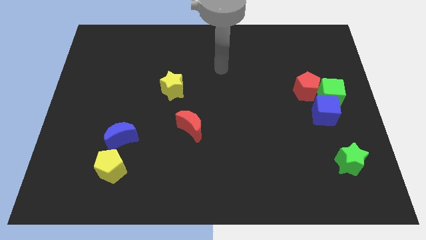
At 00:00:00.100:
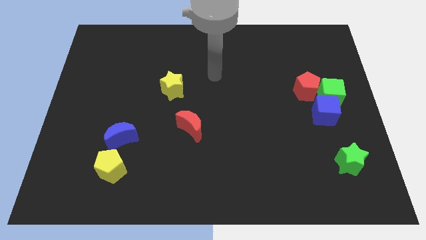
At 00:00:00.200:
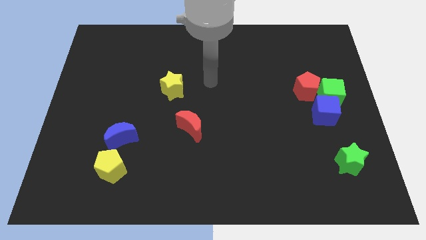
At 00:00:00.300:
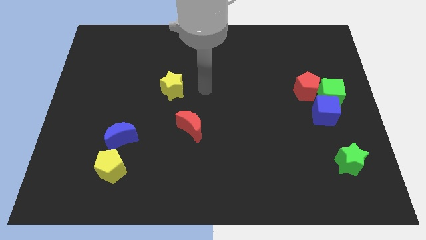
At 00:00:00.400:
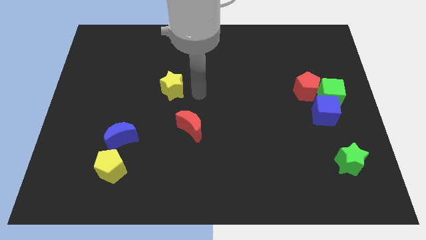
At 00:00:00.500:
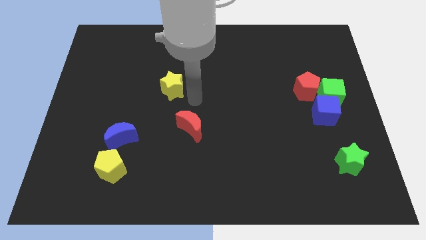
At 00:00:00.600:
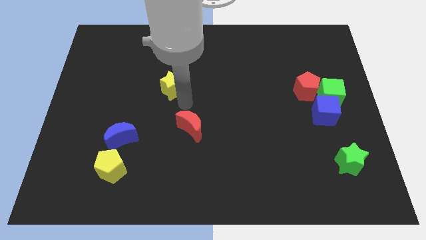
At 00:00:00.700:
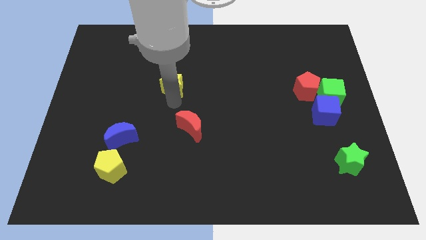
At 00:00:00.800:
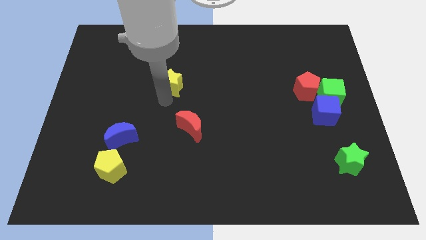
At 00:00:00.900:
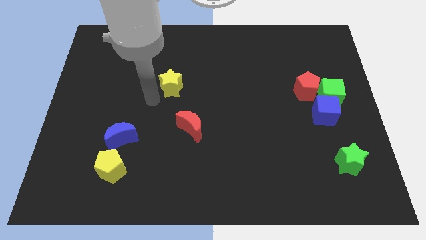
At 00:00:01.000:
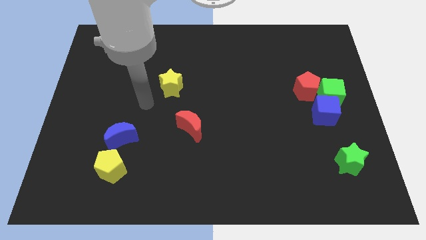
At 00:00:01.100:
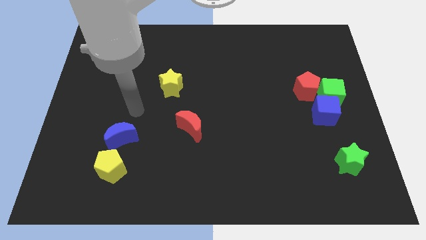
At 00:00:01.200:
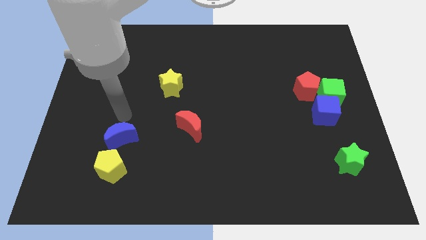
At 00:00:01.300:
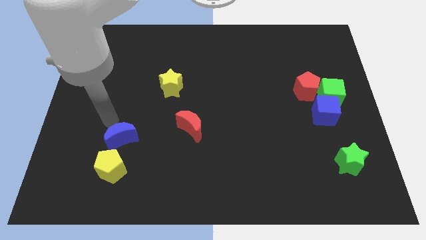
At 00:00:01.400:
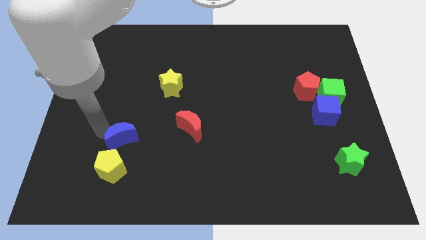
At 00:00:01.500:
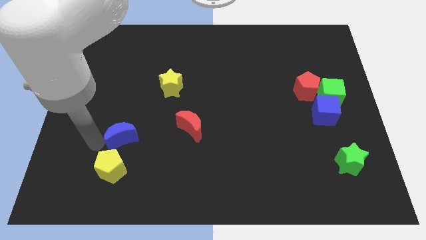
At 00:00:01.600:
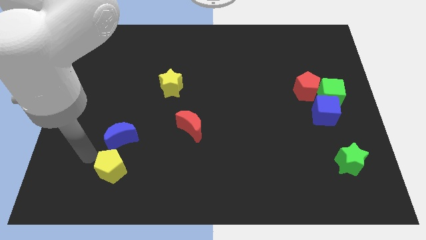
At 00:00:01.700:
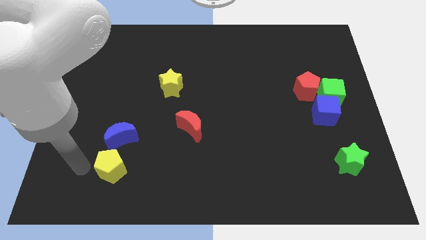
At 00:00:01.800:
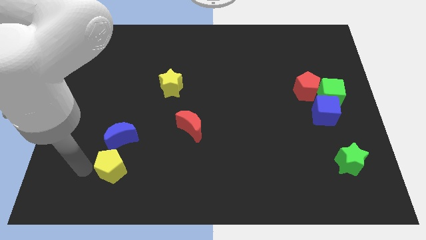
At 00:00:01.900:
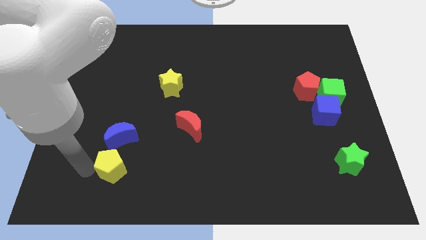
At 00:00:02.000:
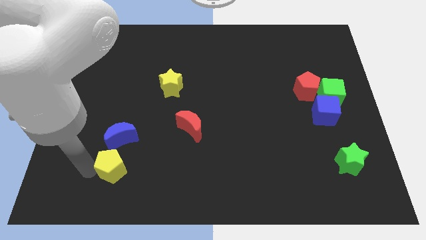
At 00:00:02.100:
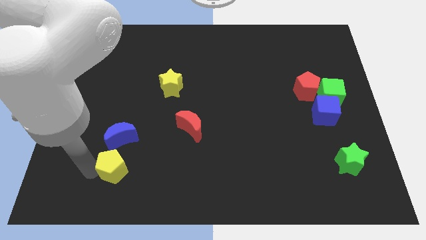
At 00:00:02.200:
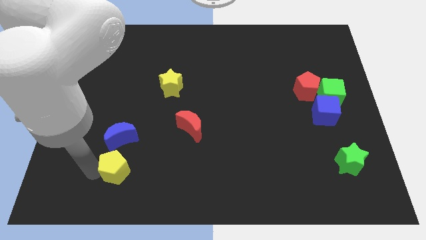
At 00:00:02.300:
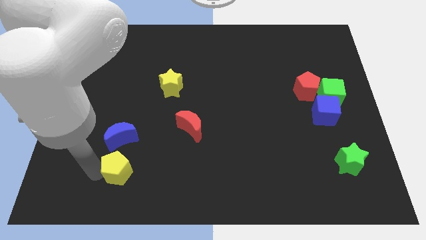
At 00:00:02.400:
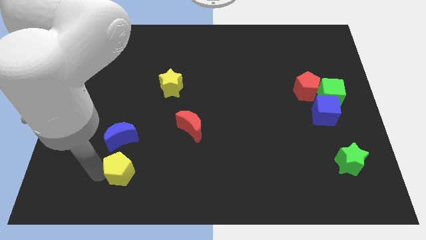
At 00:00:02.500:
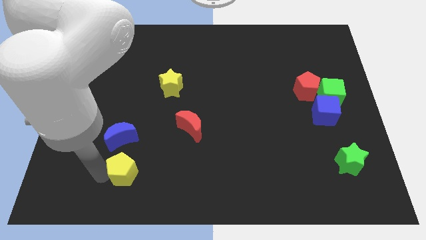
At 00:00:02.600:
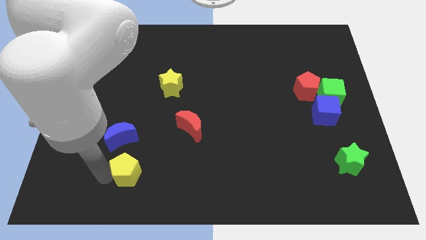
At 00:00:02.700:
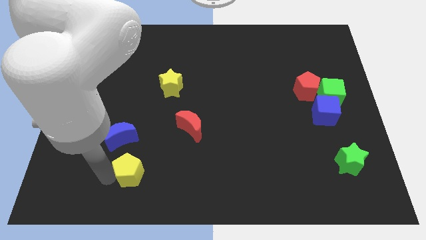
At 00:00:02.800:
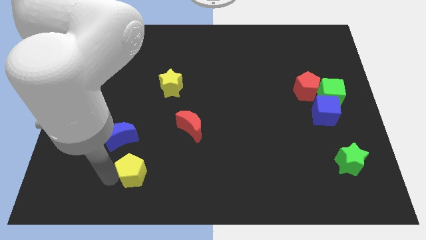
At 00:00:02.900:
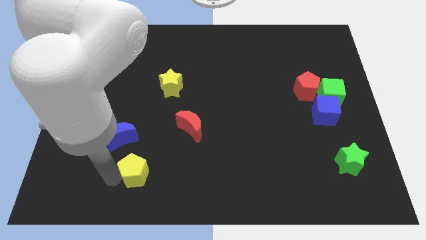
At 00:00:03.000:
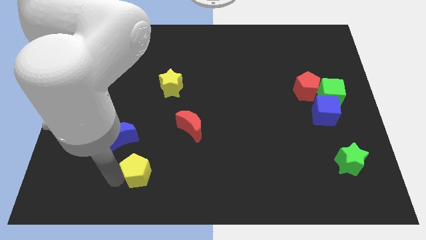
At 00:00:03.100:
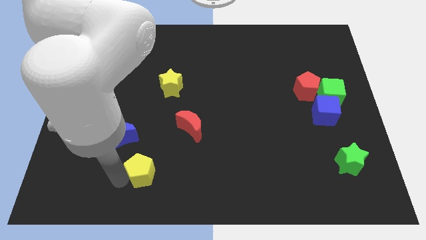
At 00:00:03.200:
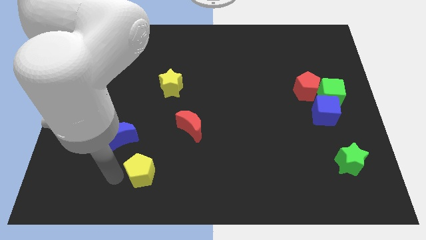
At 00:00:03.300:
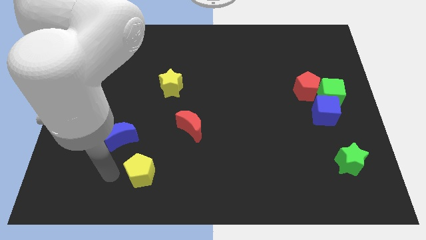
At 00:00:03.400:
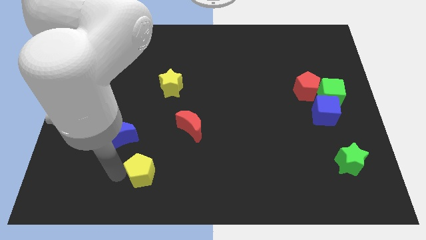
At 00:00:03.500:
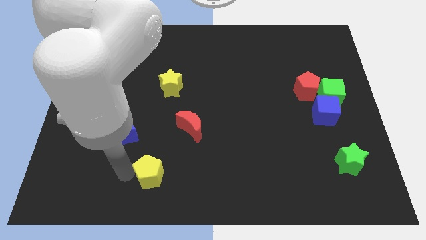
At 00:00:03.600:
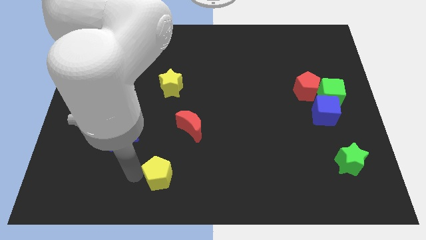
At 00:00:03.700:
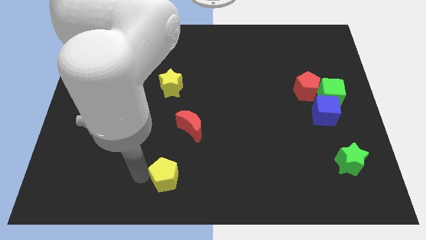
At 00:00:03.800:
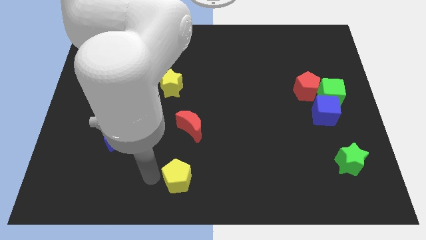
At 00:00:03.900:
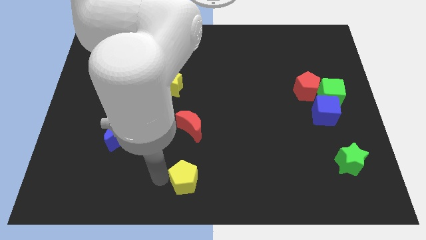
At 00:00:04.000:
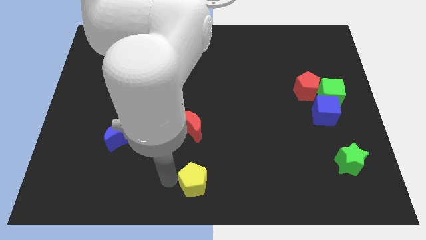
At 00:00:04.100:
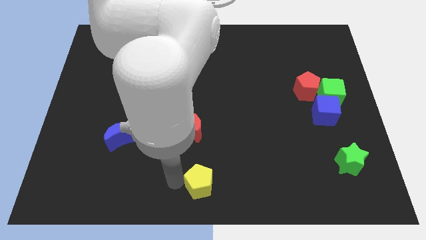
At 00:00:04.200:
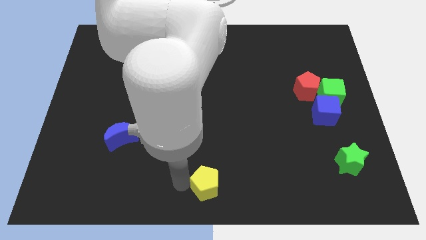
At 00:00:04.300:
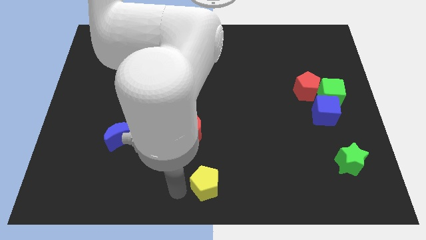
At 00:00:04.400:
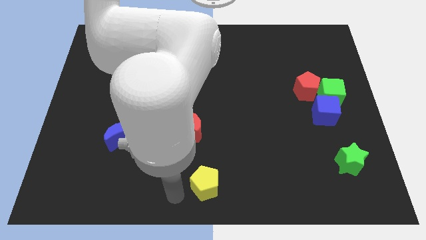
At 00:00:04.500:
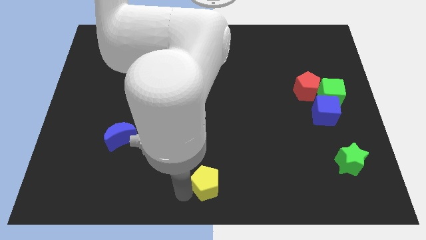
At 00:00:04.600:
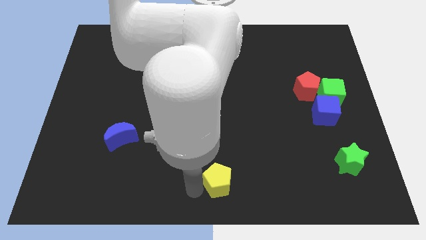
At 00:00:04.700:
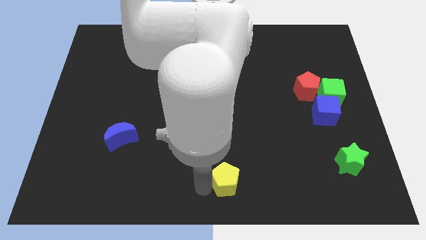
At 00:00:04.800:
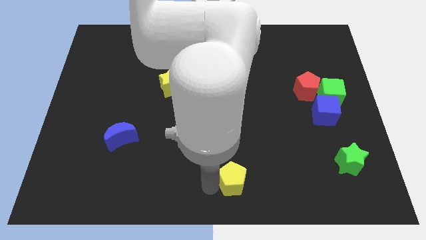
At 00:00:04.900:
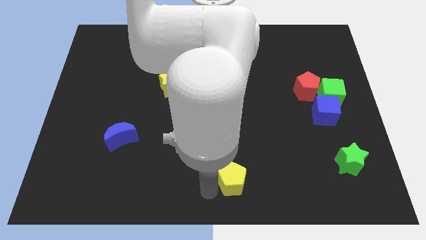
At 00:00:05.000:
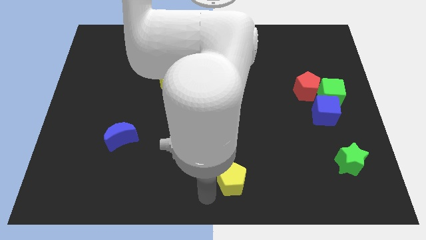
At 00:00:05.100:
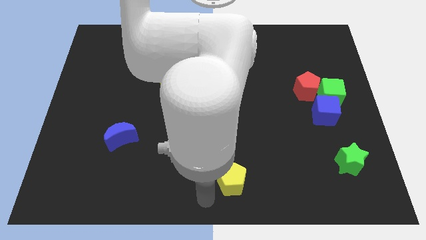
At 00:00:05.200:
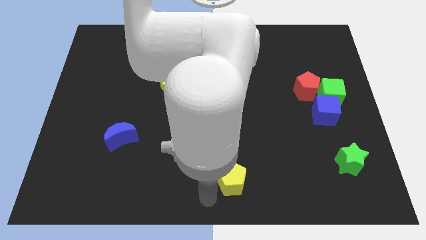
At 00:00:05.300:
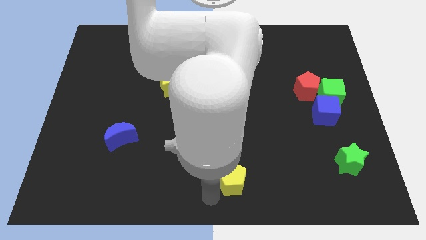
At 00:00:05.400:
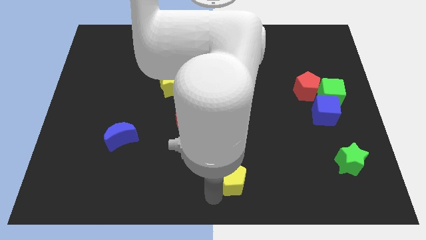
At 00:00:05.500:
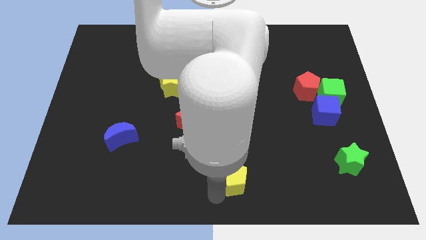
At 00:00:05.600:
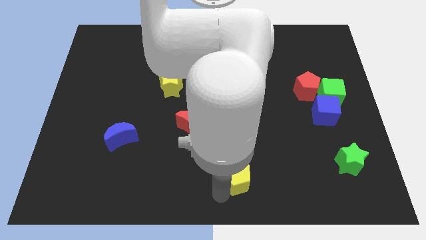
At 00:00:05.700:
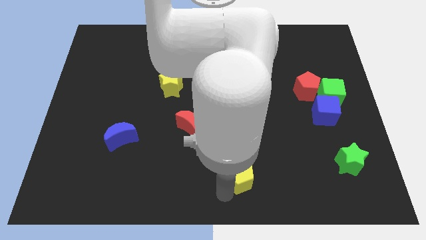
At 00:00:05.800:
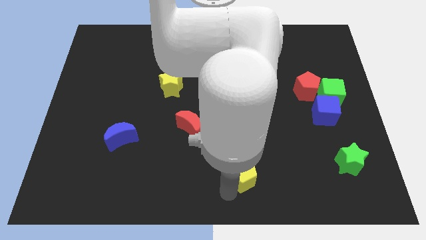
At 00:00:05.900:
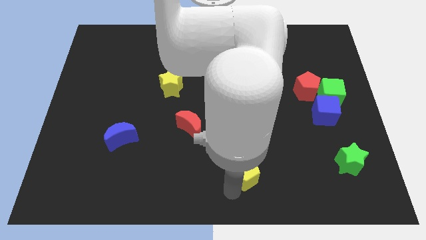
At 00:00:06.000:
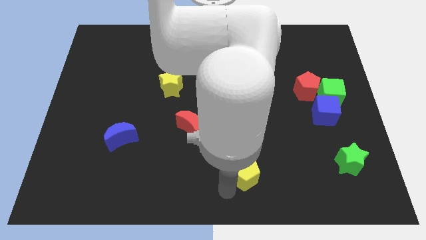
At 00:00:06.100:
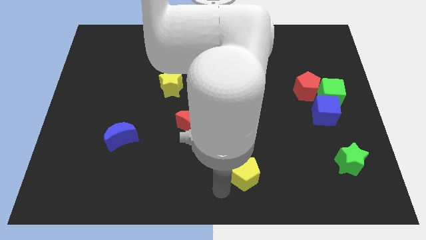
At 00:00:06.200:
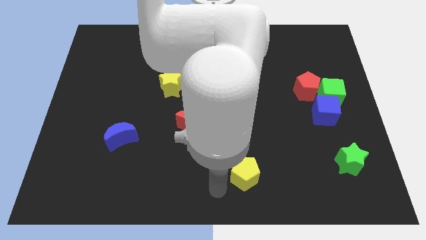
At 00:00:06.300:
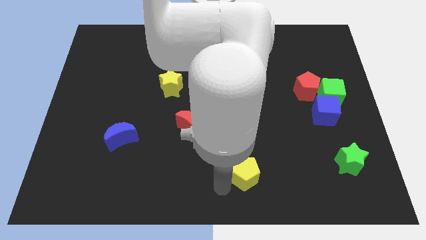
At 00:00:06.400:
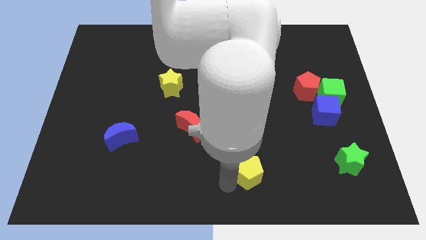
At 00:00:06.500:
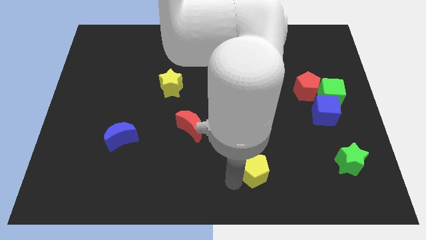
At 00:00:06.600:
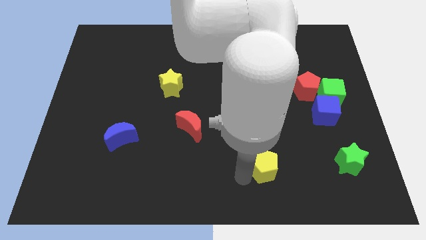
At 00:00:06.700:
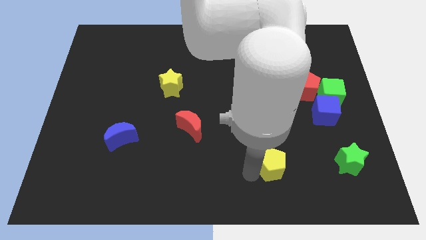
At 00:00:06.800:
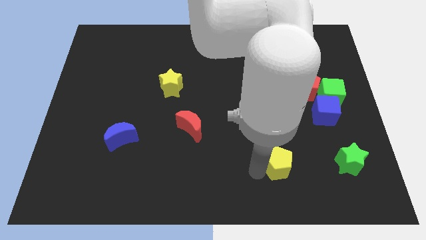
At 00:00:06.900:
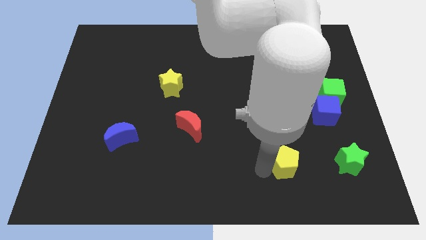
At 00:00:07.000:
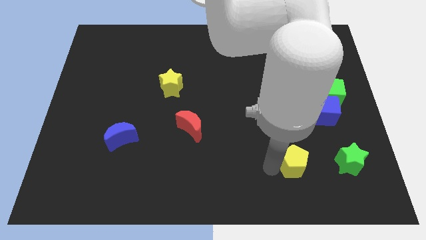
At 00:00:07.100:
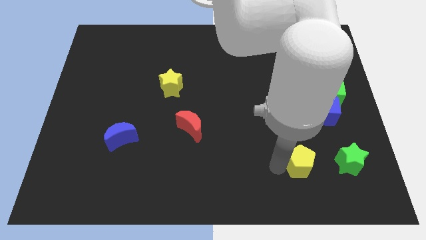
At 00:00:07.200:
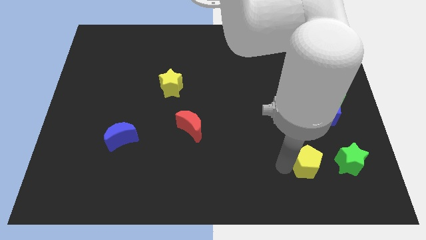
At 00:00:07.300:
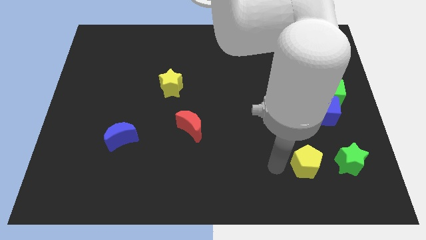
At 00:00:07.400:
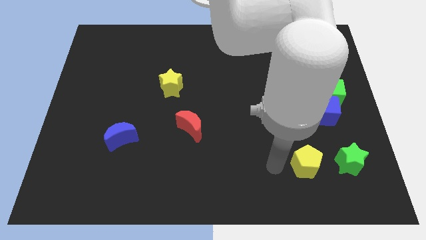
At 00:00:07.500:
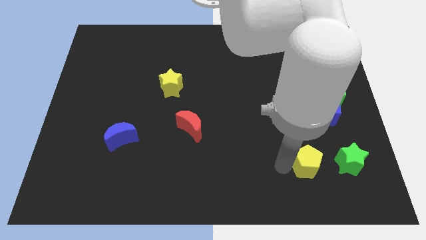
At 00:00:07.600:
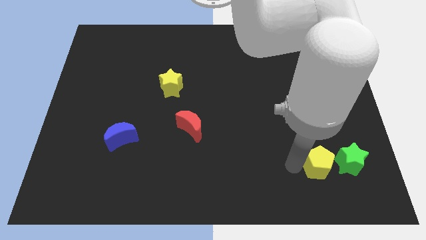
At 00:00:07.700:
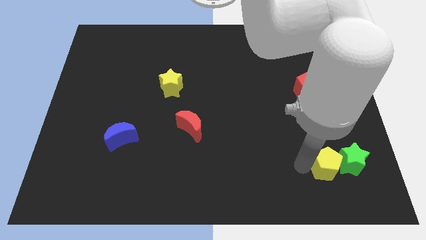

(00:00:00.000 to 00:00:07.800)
slide the yellow pentagon towards the green star
